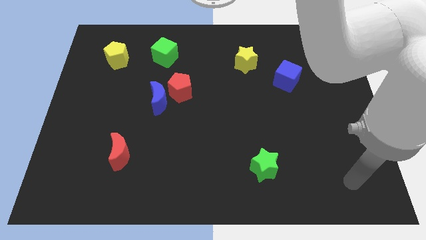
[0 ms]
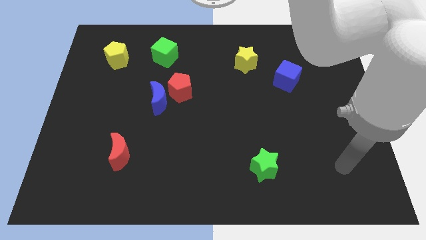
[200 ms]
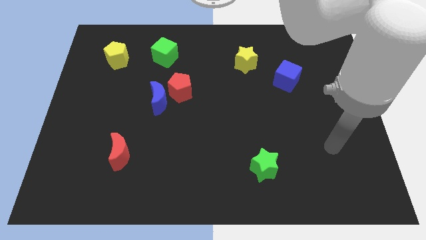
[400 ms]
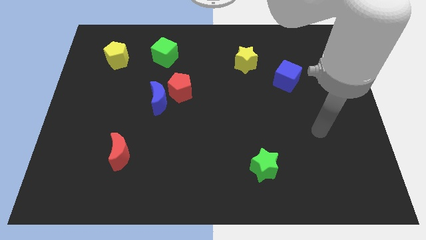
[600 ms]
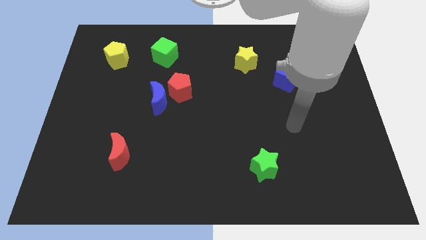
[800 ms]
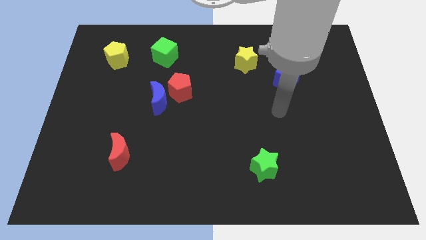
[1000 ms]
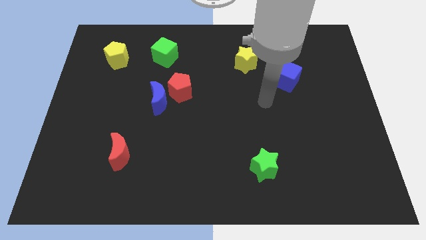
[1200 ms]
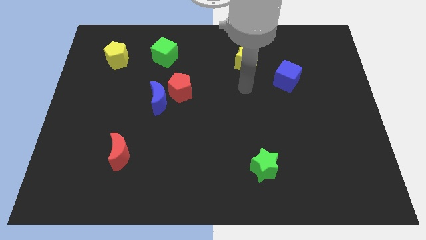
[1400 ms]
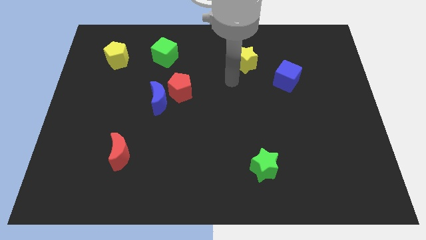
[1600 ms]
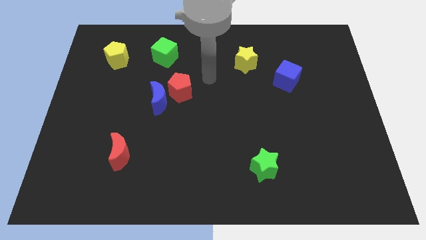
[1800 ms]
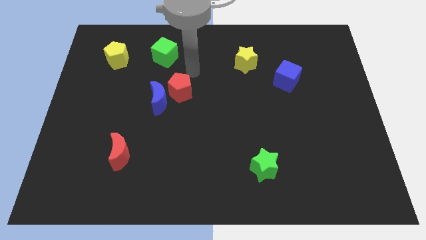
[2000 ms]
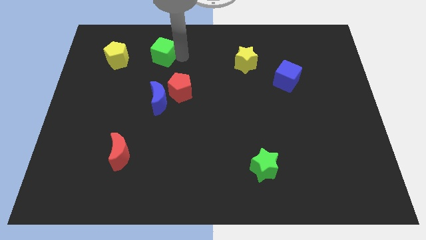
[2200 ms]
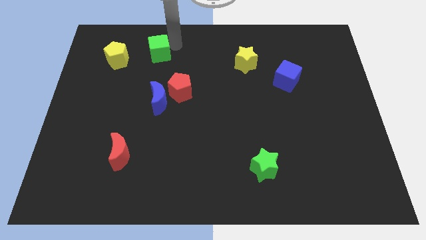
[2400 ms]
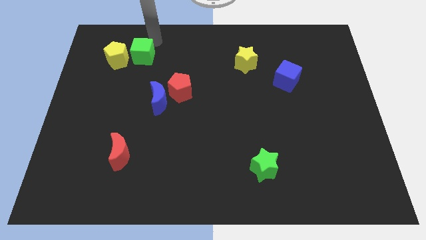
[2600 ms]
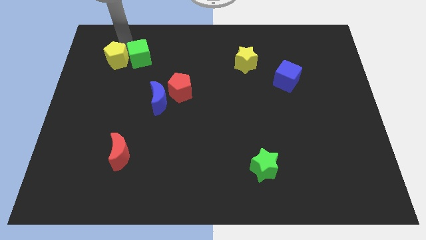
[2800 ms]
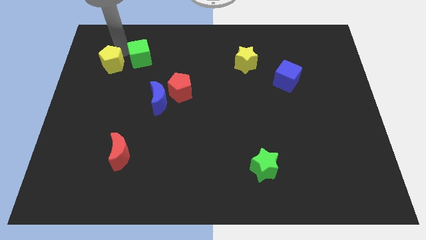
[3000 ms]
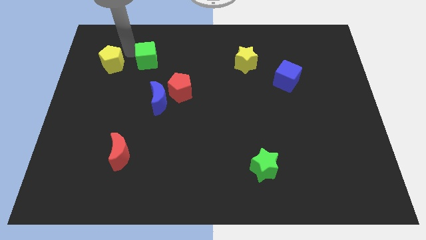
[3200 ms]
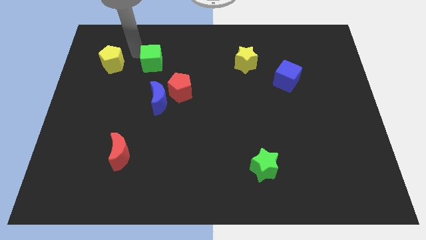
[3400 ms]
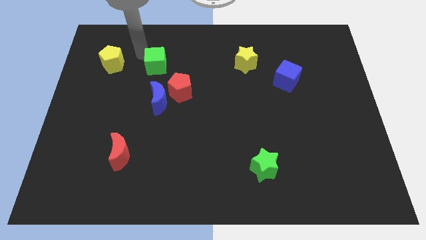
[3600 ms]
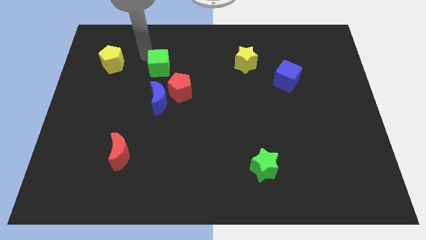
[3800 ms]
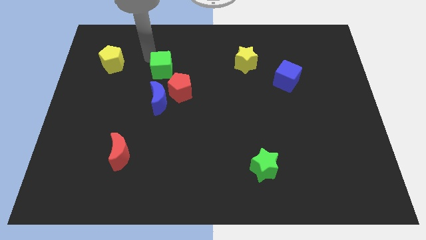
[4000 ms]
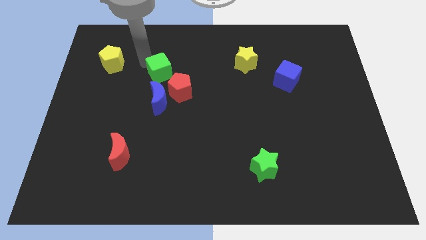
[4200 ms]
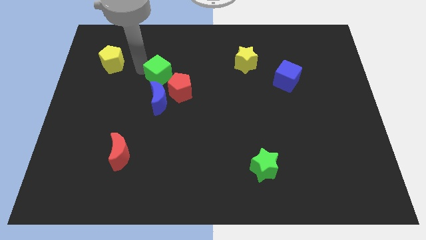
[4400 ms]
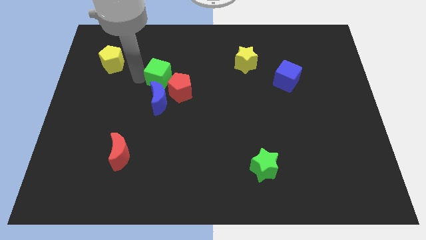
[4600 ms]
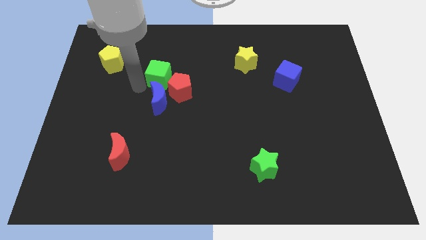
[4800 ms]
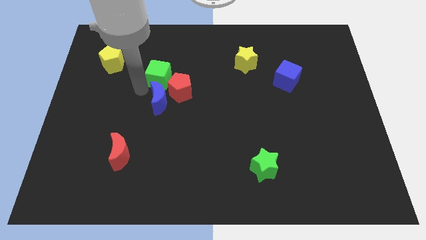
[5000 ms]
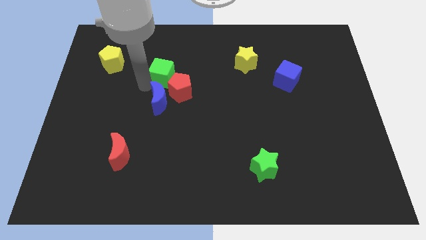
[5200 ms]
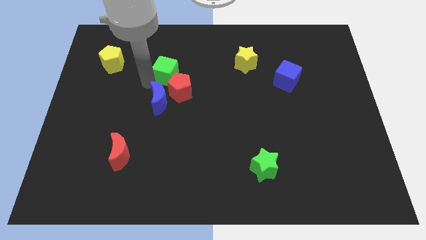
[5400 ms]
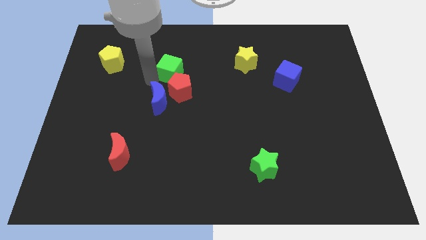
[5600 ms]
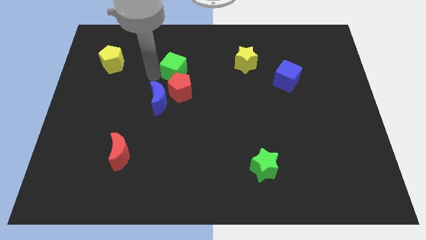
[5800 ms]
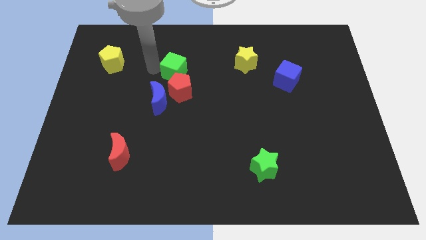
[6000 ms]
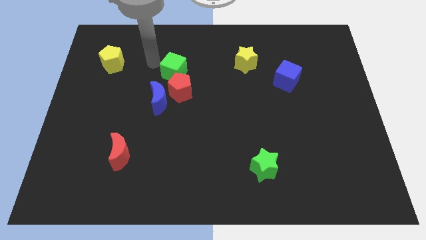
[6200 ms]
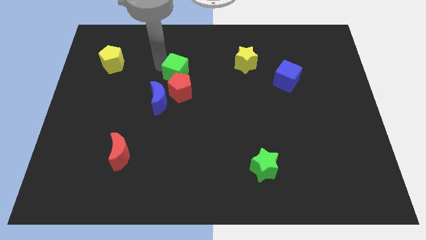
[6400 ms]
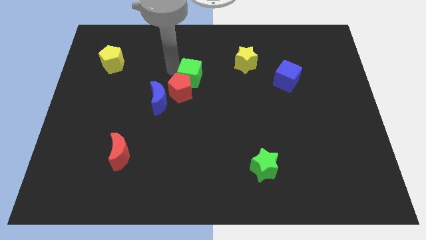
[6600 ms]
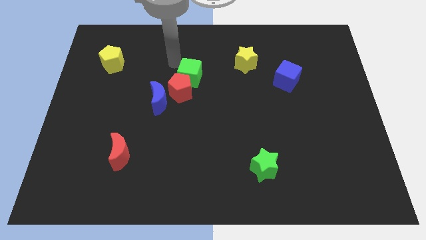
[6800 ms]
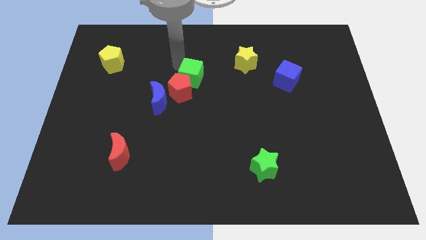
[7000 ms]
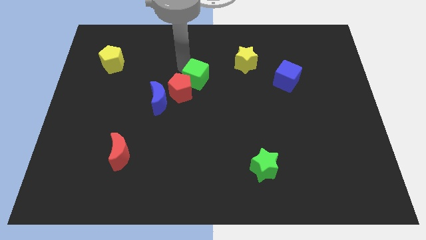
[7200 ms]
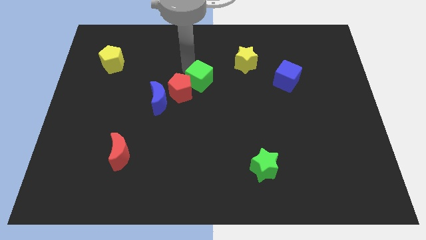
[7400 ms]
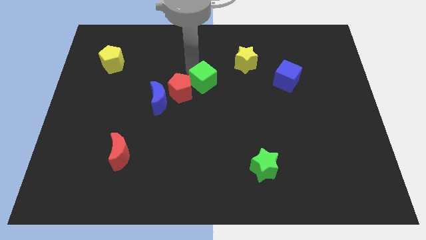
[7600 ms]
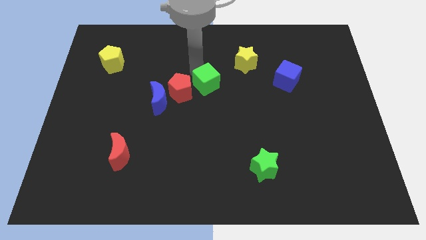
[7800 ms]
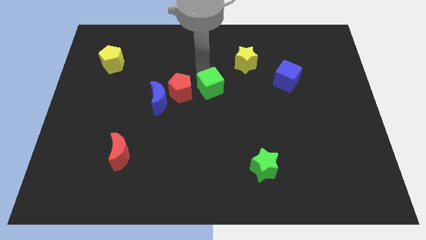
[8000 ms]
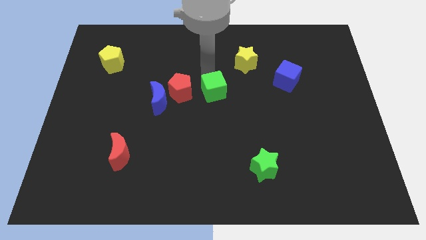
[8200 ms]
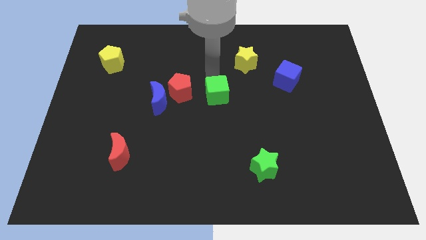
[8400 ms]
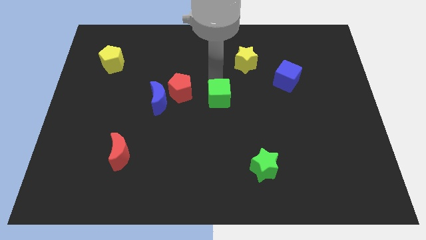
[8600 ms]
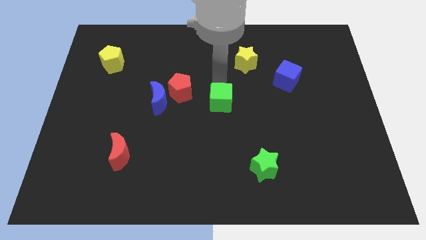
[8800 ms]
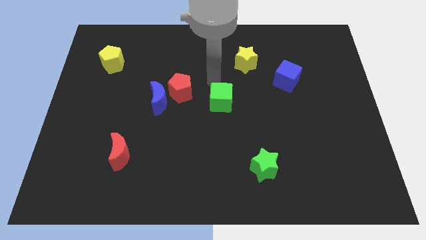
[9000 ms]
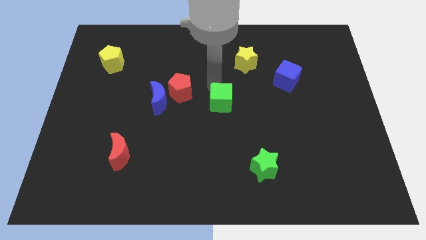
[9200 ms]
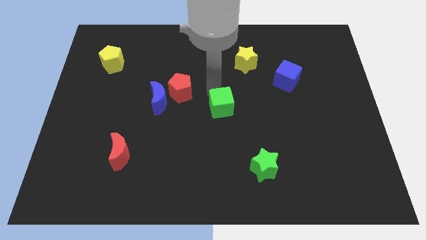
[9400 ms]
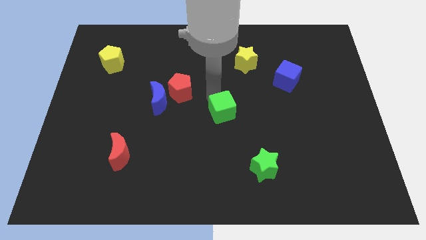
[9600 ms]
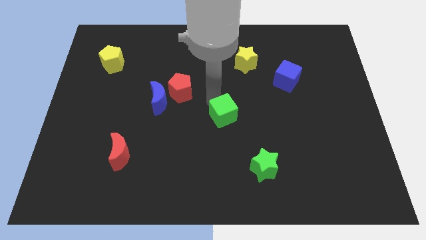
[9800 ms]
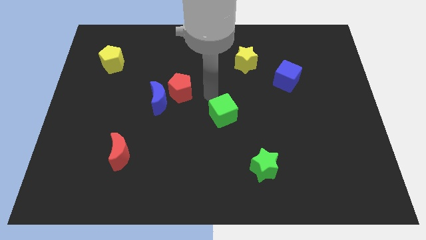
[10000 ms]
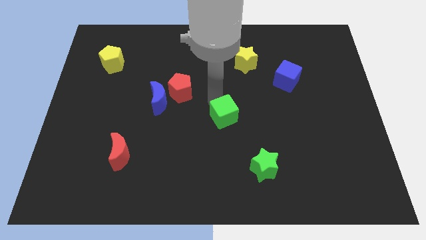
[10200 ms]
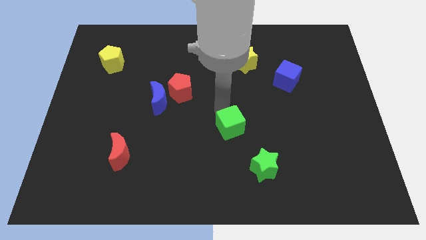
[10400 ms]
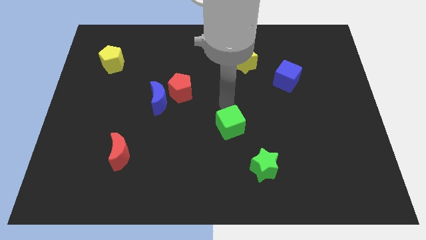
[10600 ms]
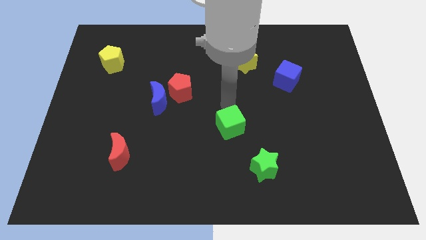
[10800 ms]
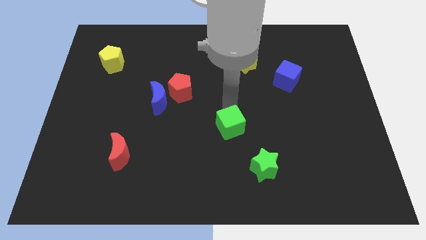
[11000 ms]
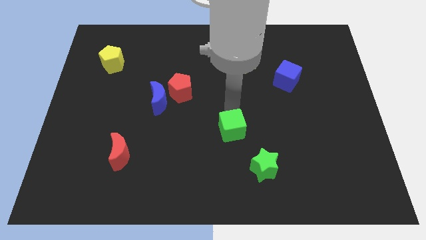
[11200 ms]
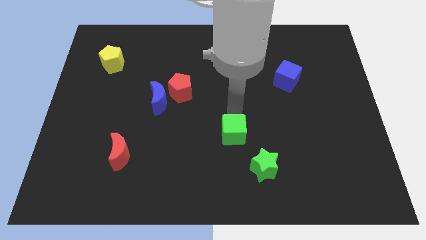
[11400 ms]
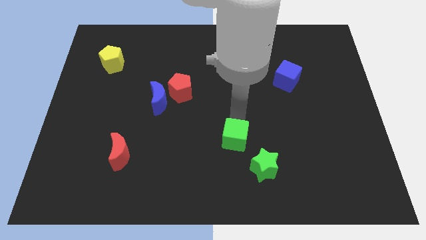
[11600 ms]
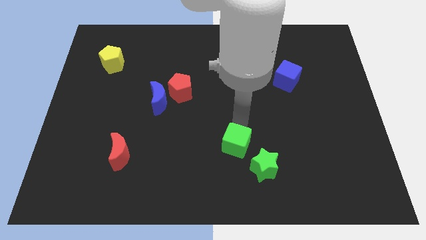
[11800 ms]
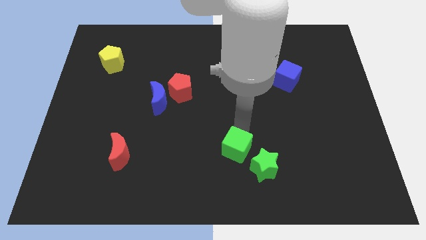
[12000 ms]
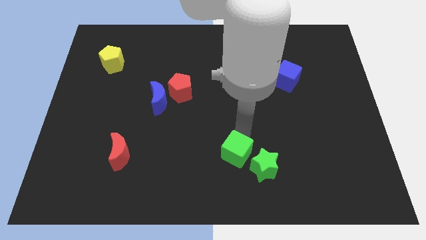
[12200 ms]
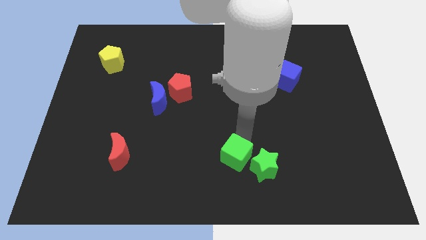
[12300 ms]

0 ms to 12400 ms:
put the green cube to the bottom
